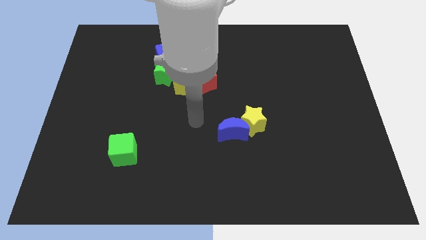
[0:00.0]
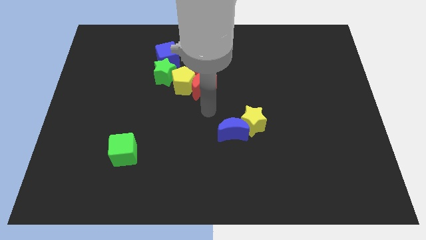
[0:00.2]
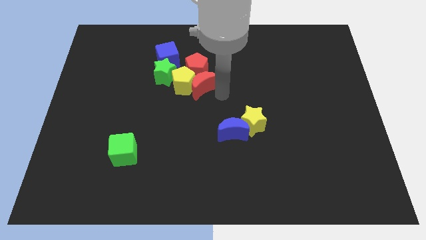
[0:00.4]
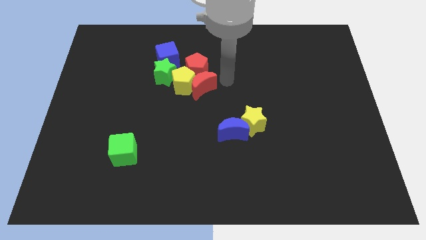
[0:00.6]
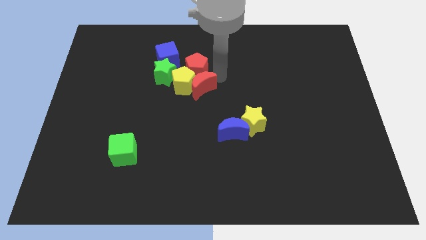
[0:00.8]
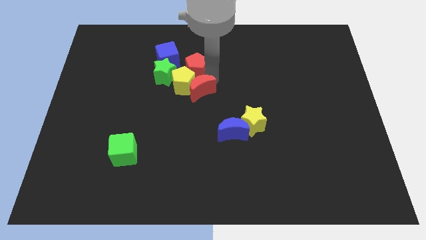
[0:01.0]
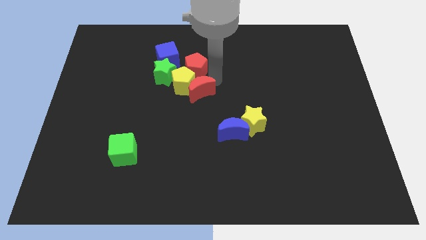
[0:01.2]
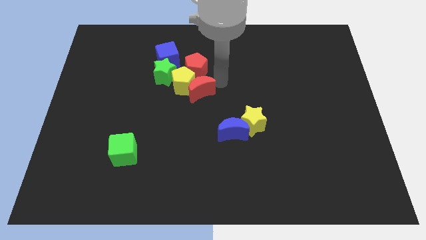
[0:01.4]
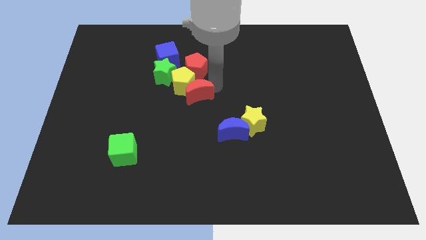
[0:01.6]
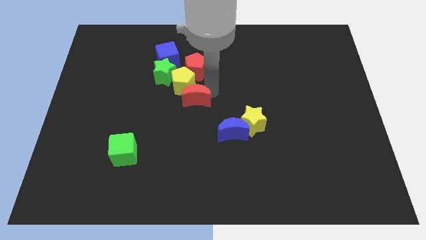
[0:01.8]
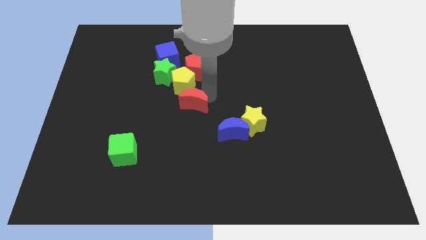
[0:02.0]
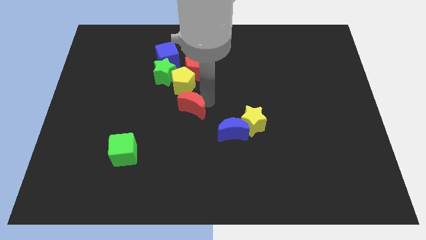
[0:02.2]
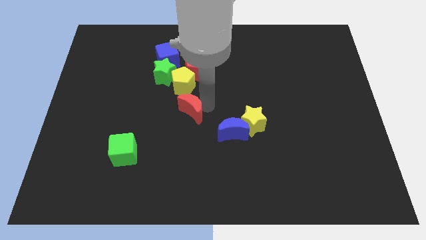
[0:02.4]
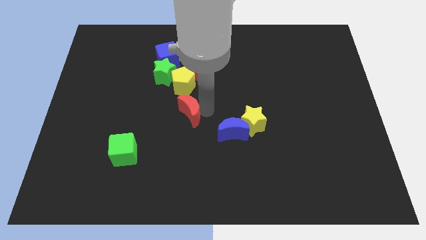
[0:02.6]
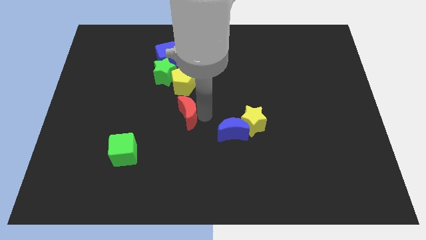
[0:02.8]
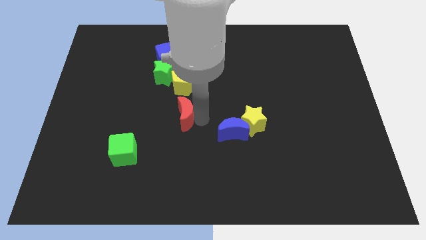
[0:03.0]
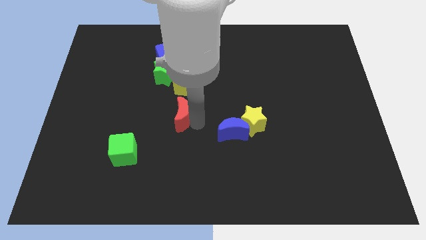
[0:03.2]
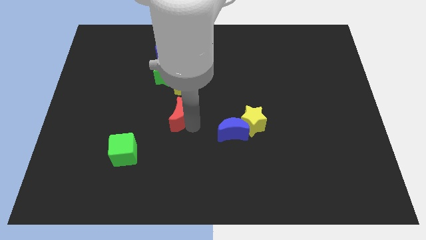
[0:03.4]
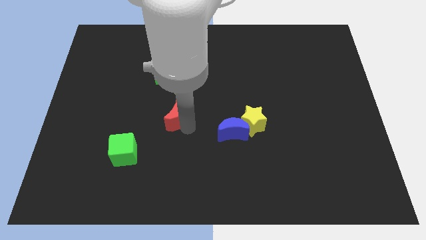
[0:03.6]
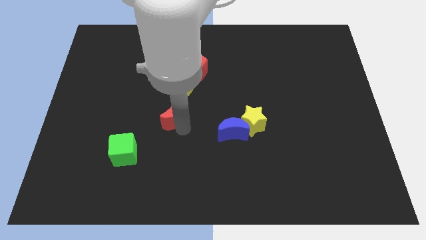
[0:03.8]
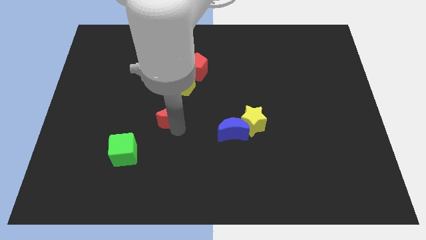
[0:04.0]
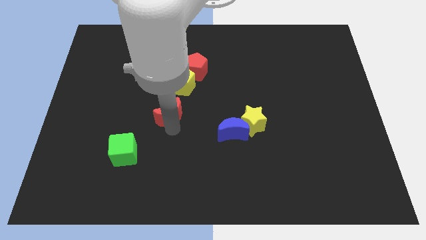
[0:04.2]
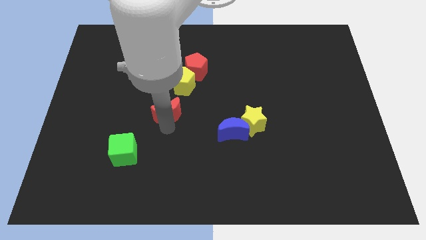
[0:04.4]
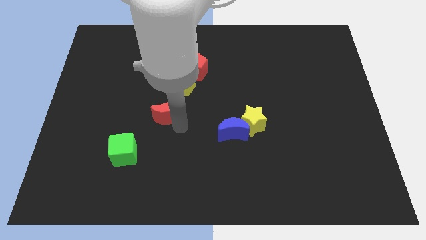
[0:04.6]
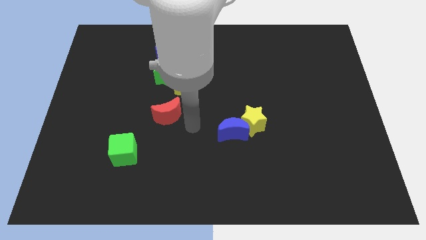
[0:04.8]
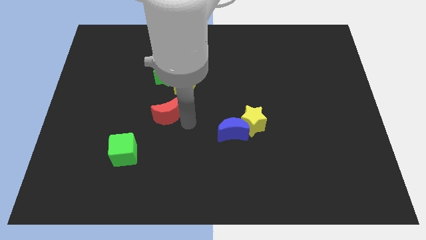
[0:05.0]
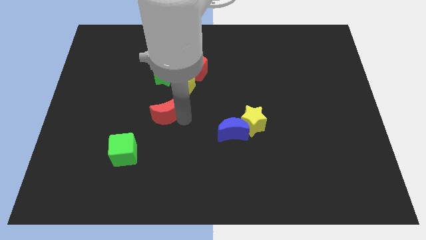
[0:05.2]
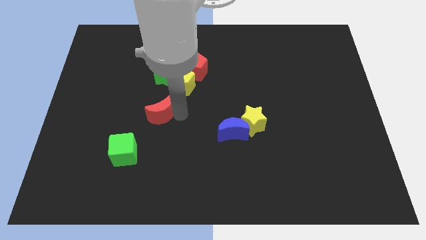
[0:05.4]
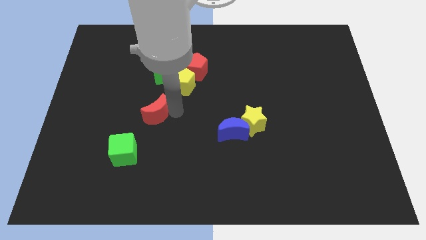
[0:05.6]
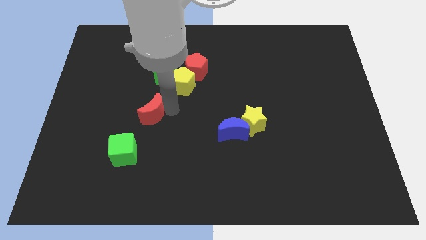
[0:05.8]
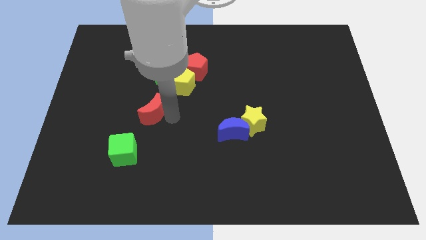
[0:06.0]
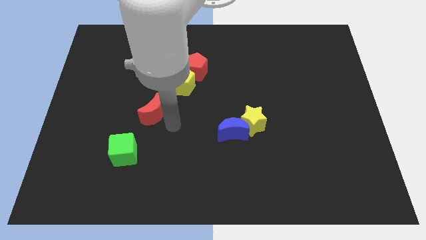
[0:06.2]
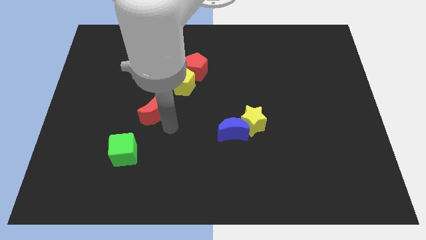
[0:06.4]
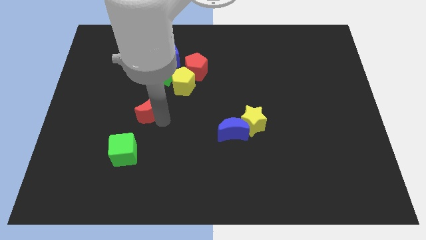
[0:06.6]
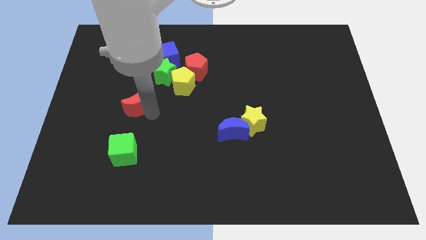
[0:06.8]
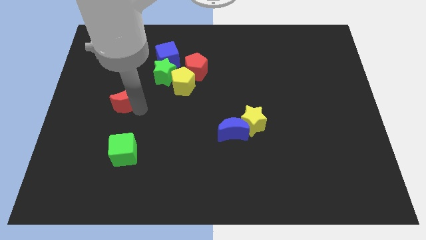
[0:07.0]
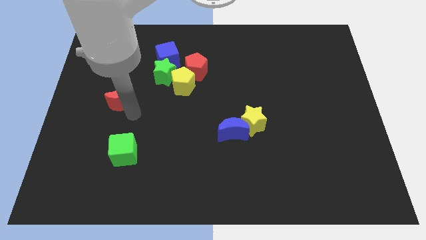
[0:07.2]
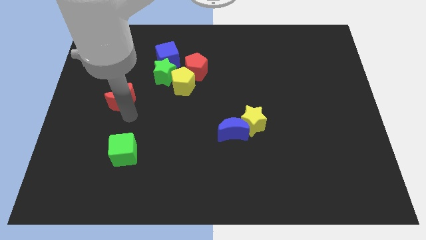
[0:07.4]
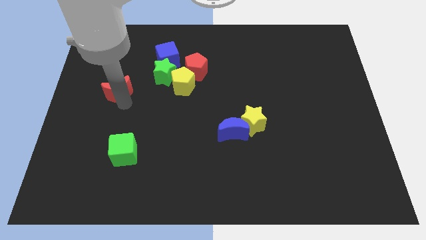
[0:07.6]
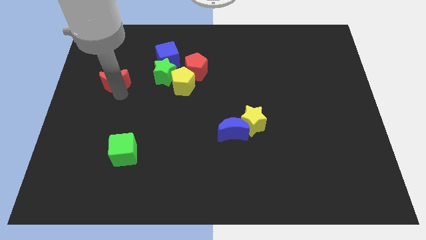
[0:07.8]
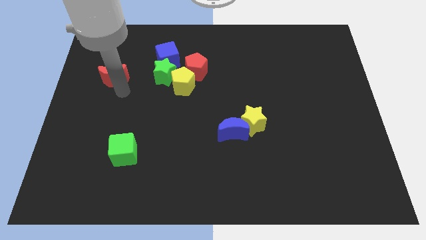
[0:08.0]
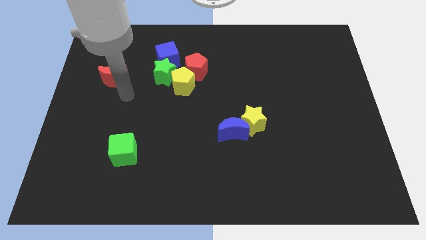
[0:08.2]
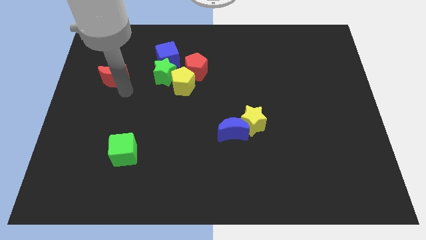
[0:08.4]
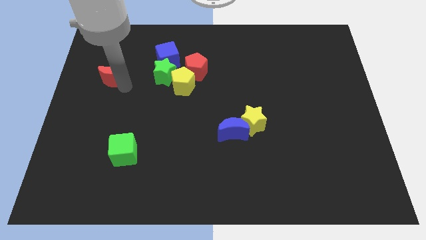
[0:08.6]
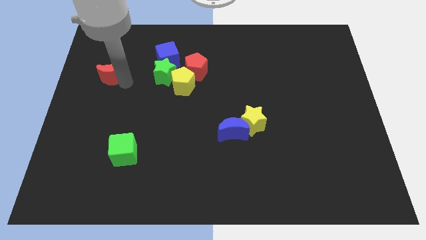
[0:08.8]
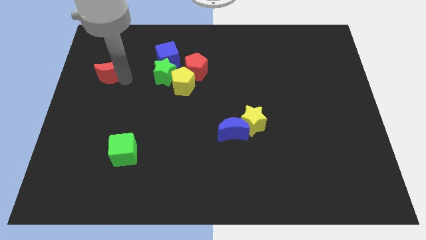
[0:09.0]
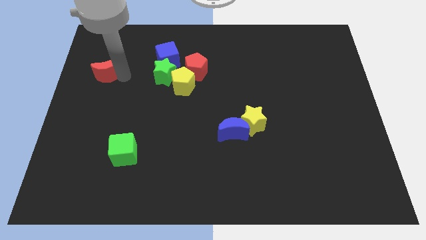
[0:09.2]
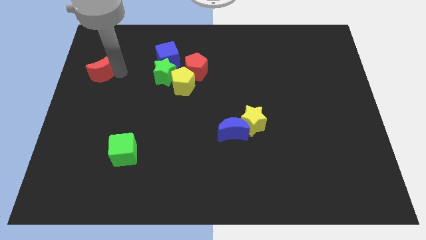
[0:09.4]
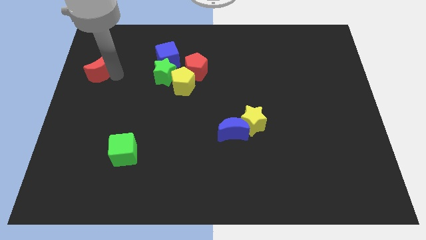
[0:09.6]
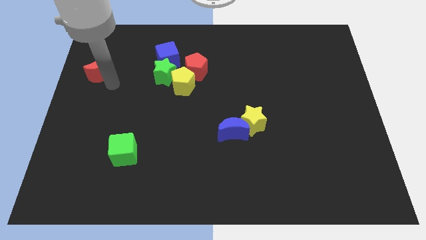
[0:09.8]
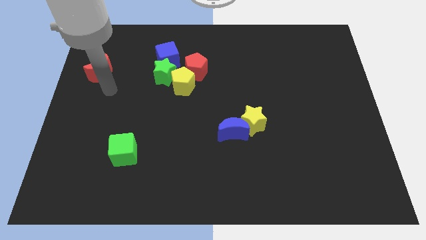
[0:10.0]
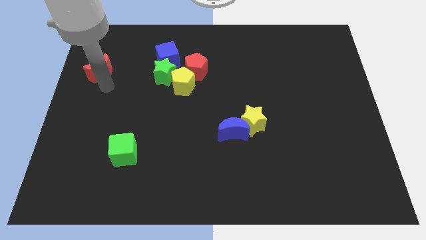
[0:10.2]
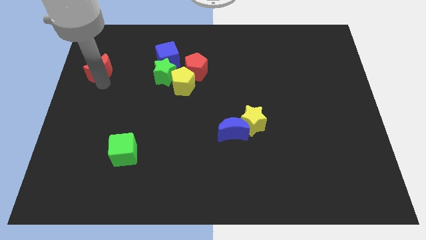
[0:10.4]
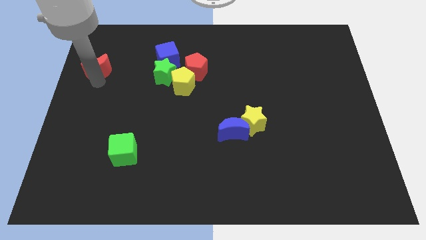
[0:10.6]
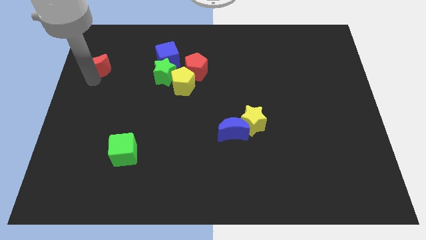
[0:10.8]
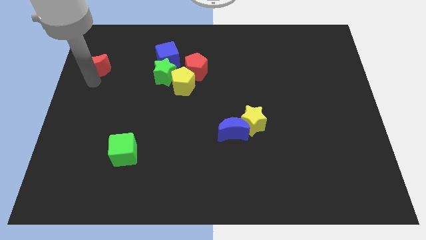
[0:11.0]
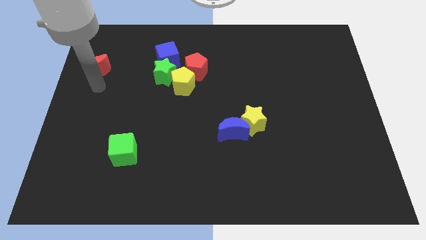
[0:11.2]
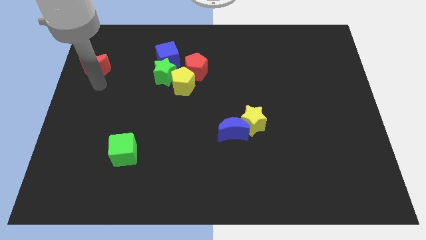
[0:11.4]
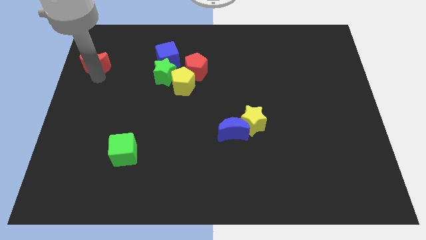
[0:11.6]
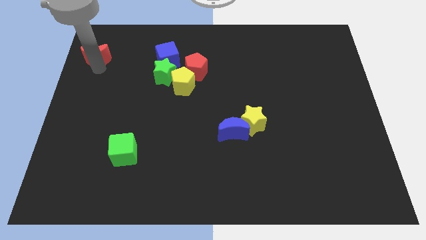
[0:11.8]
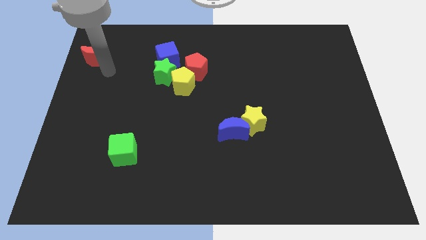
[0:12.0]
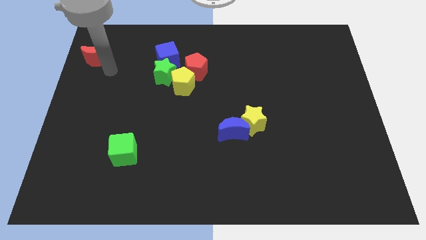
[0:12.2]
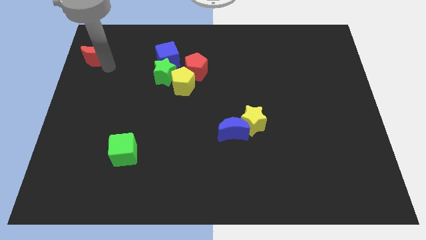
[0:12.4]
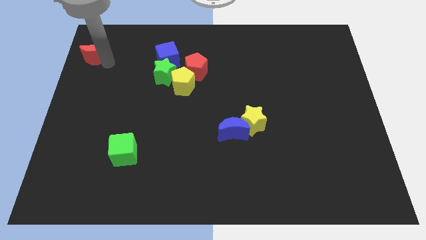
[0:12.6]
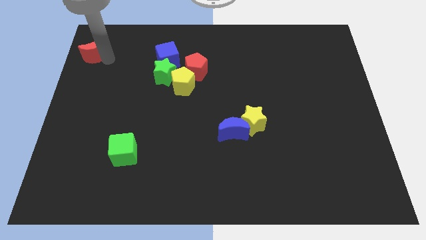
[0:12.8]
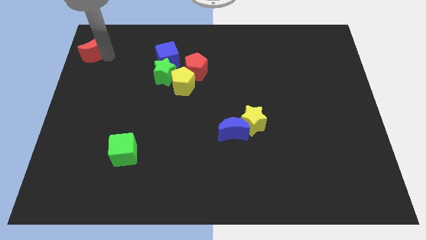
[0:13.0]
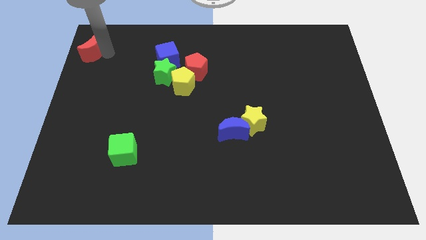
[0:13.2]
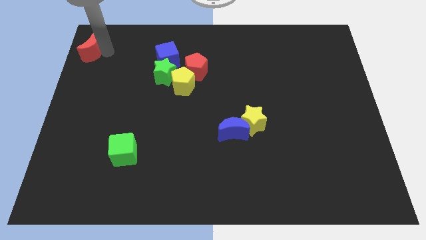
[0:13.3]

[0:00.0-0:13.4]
push the red moon to the top left
